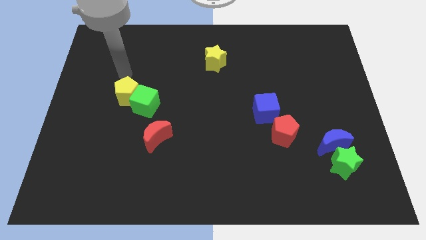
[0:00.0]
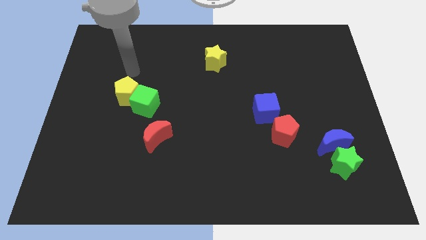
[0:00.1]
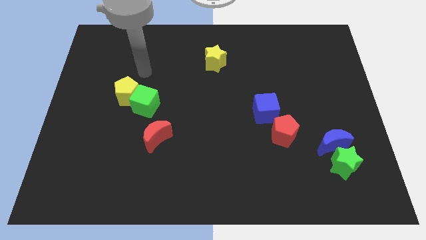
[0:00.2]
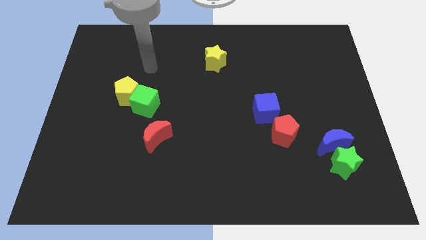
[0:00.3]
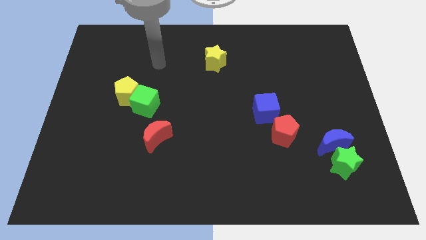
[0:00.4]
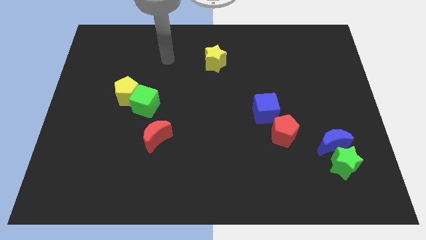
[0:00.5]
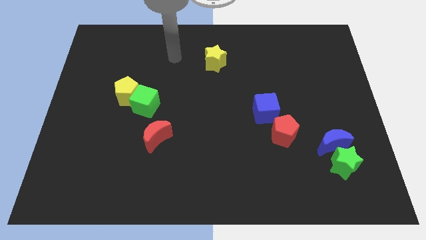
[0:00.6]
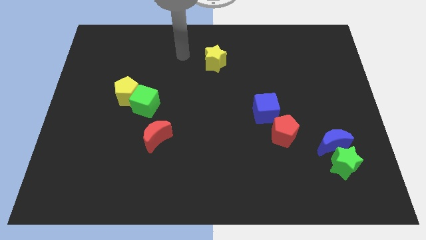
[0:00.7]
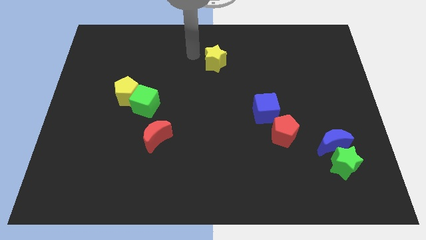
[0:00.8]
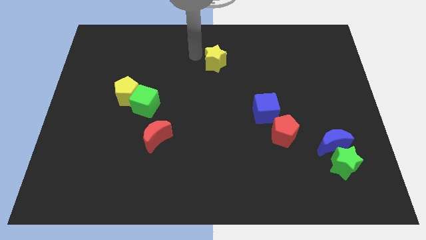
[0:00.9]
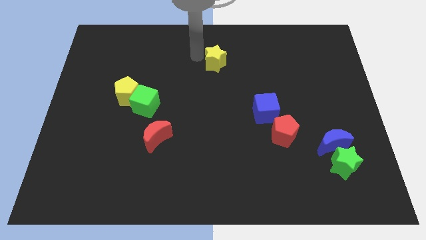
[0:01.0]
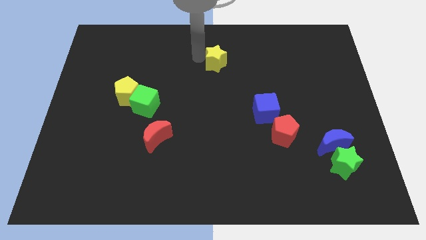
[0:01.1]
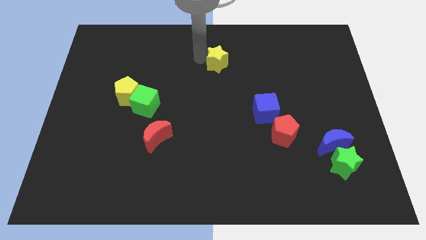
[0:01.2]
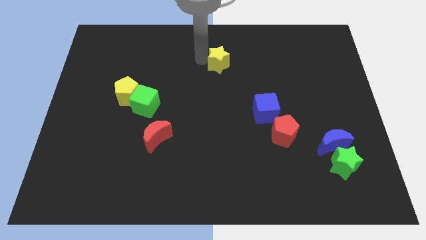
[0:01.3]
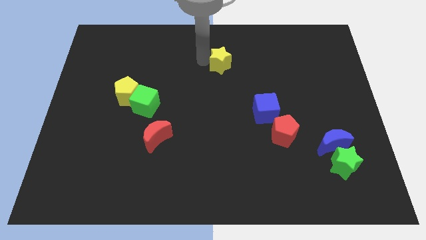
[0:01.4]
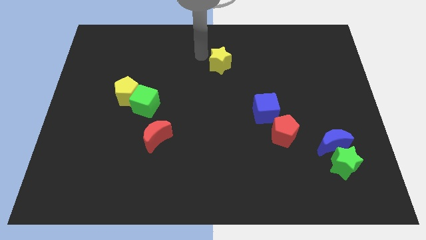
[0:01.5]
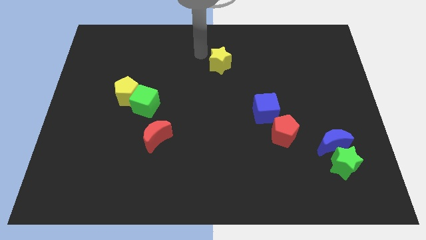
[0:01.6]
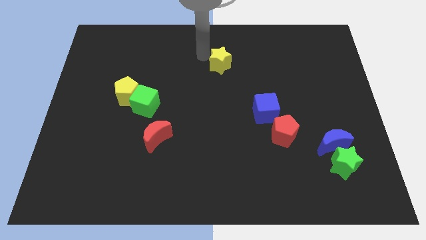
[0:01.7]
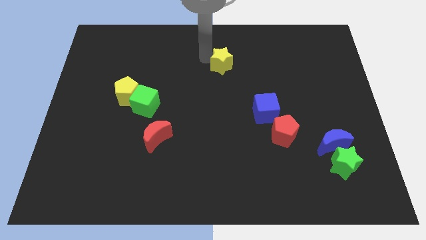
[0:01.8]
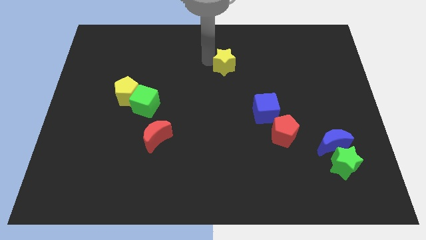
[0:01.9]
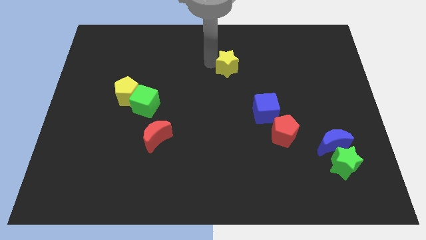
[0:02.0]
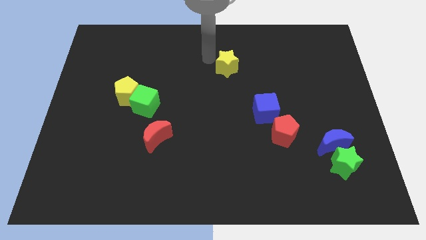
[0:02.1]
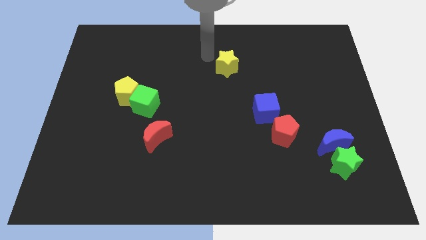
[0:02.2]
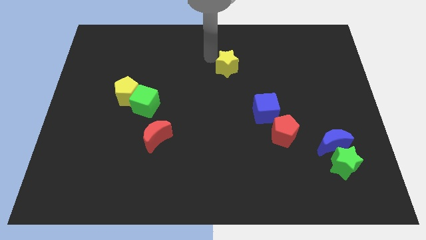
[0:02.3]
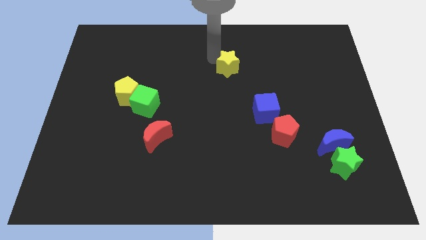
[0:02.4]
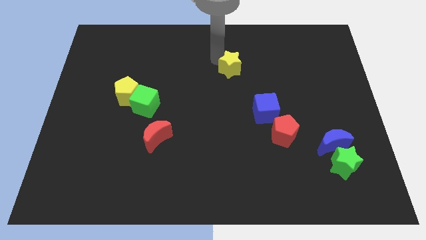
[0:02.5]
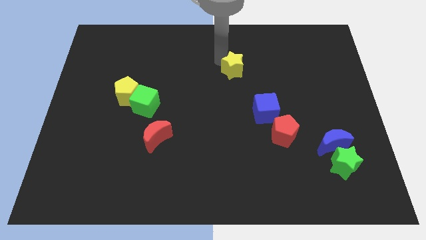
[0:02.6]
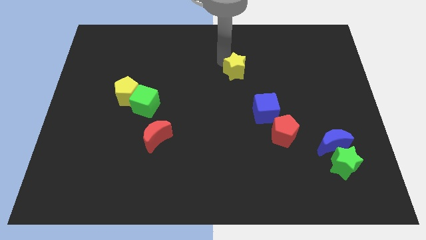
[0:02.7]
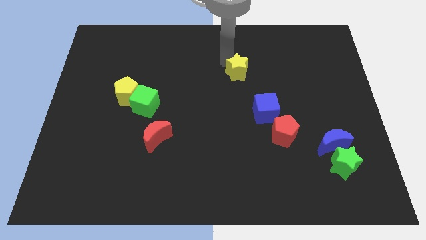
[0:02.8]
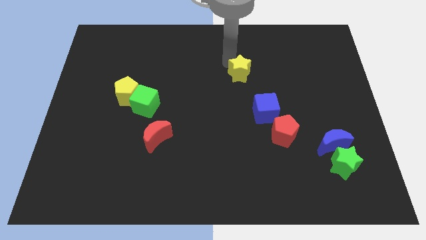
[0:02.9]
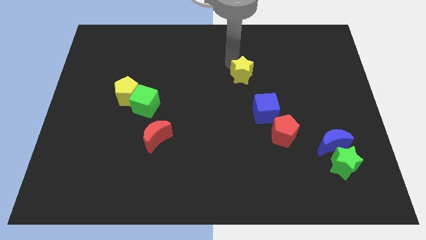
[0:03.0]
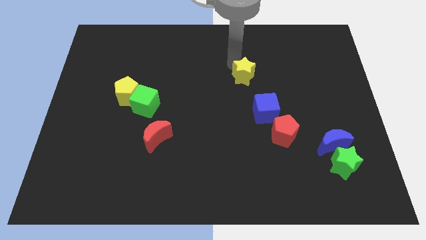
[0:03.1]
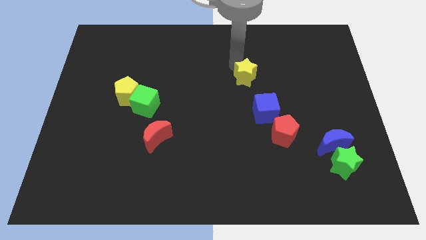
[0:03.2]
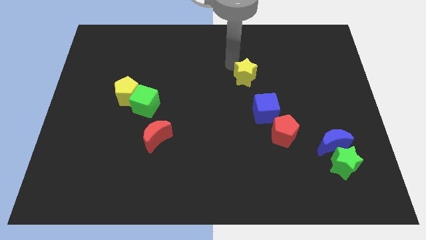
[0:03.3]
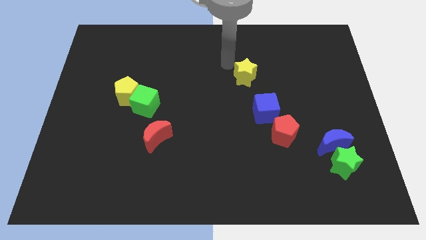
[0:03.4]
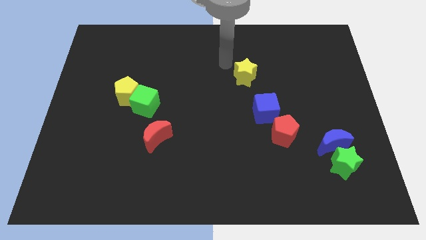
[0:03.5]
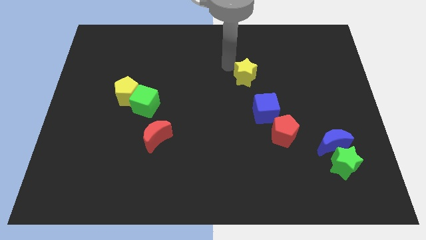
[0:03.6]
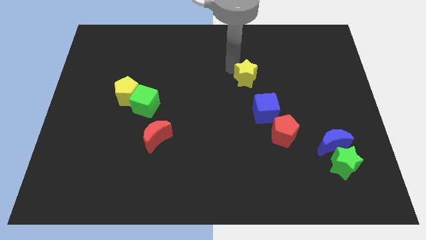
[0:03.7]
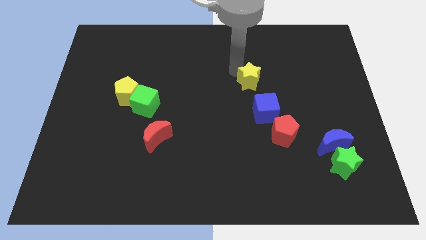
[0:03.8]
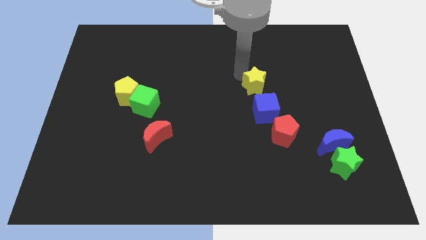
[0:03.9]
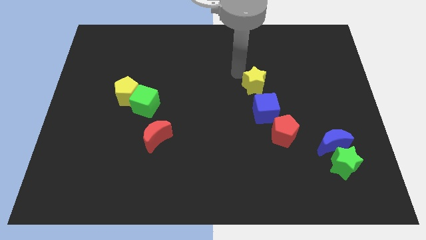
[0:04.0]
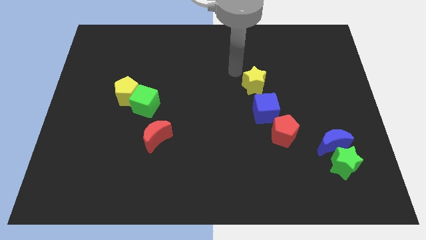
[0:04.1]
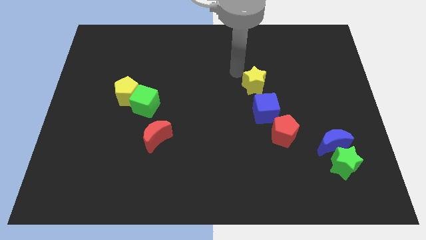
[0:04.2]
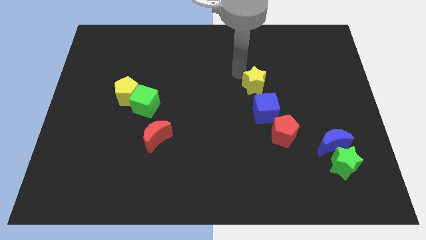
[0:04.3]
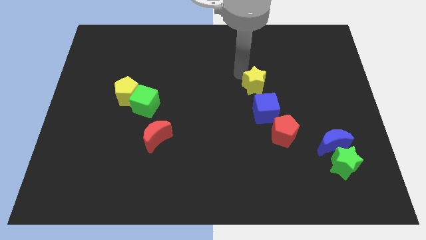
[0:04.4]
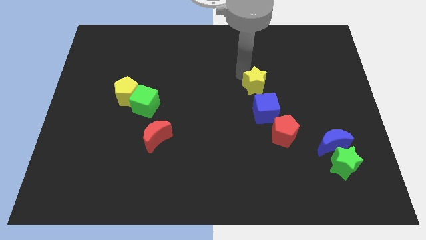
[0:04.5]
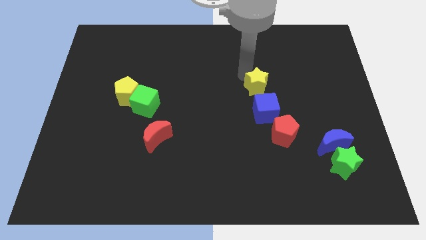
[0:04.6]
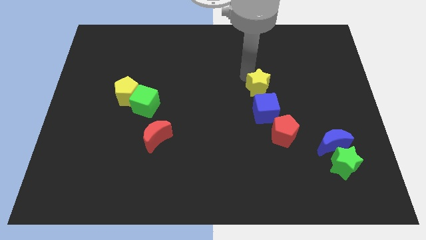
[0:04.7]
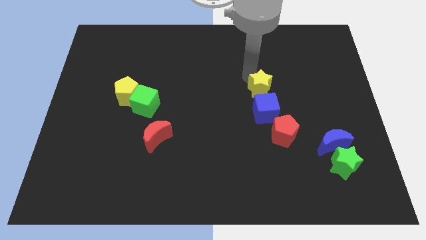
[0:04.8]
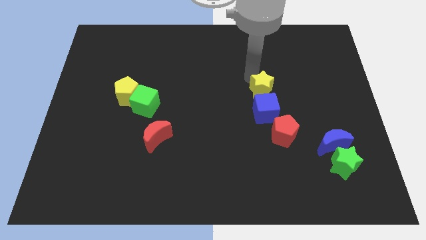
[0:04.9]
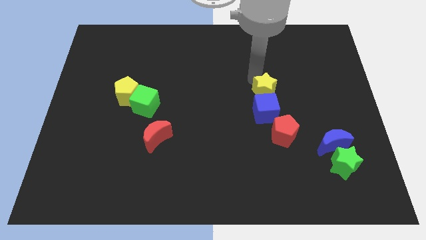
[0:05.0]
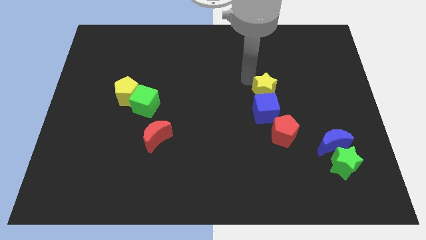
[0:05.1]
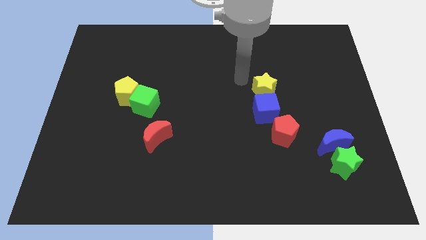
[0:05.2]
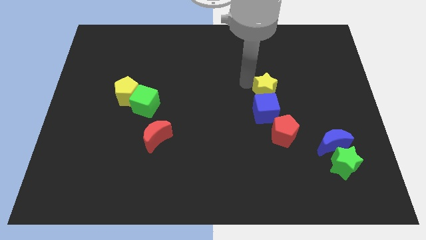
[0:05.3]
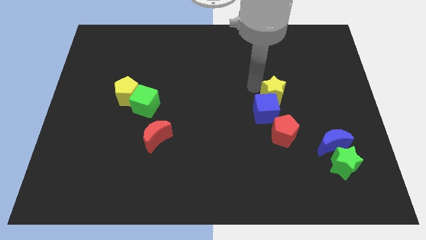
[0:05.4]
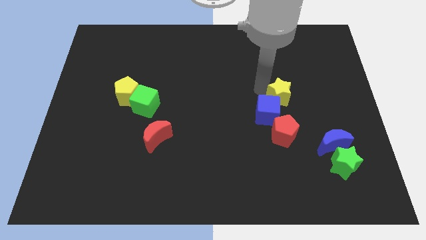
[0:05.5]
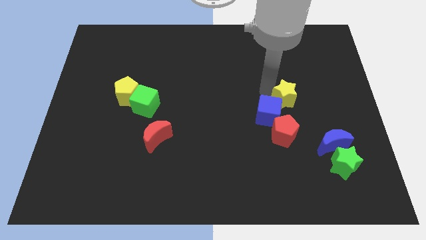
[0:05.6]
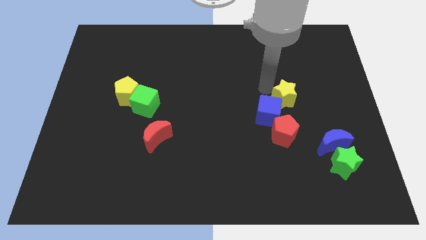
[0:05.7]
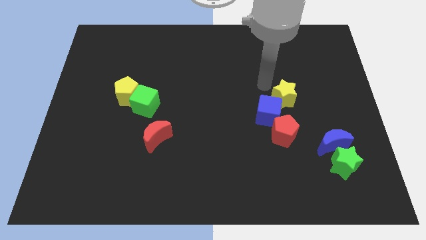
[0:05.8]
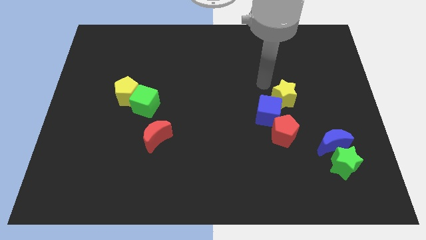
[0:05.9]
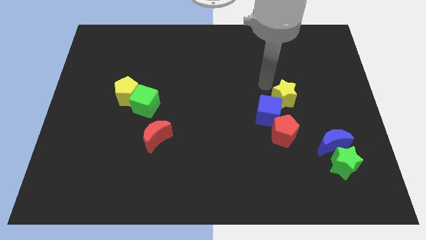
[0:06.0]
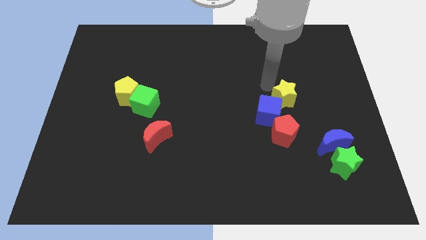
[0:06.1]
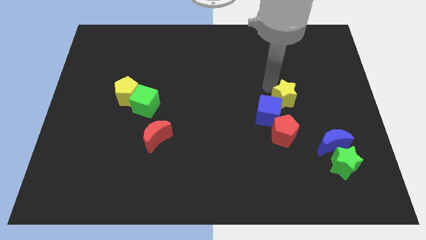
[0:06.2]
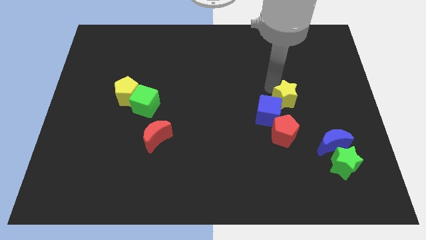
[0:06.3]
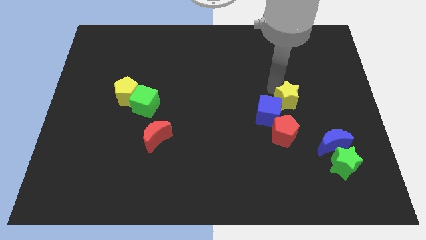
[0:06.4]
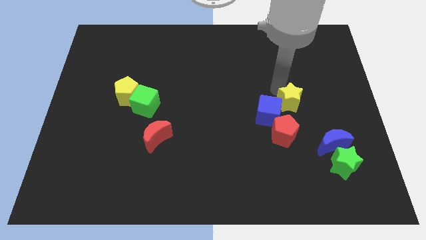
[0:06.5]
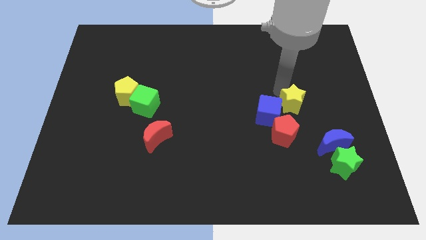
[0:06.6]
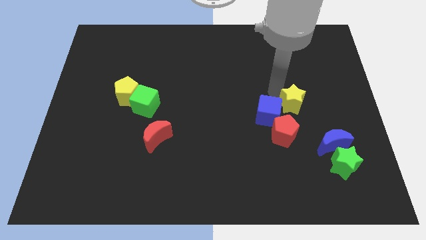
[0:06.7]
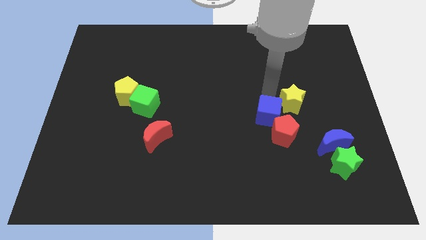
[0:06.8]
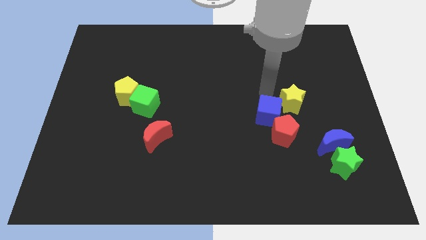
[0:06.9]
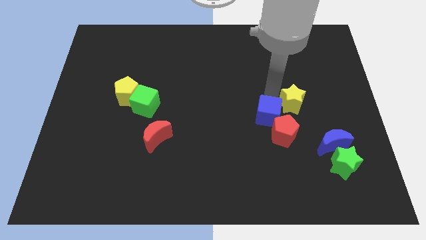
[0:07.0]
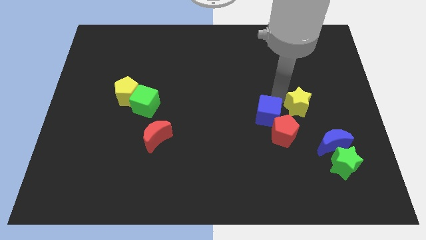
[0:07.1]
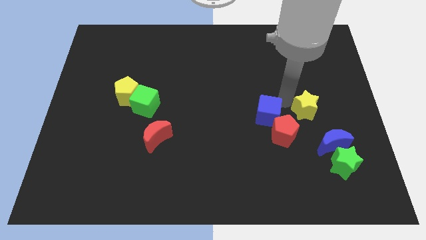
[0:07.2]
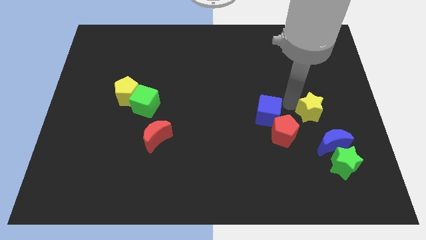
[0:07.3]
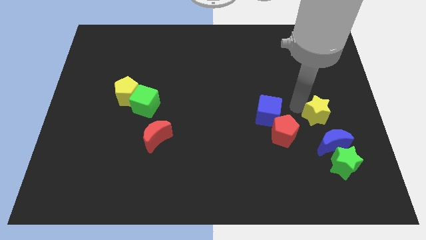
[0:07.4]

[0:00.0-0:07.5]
move the yellow star to the top side of the green star
